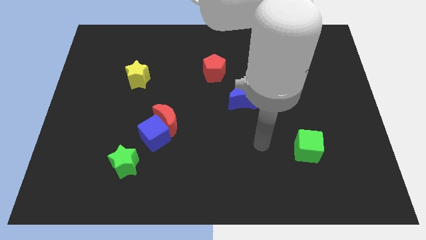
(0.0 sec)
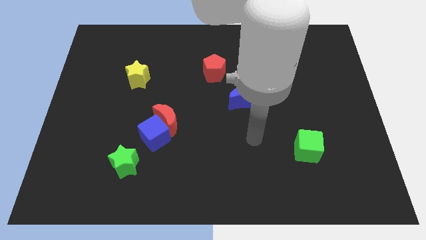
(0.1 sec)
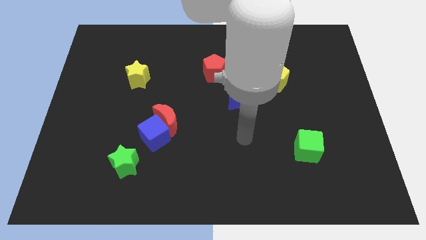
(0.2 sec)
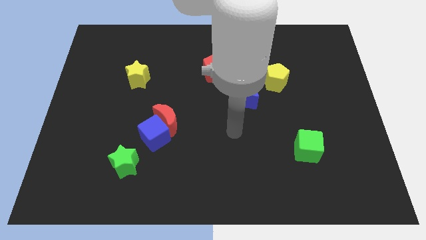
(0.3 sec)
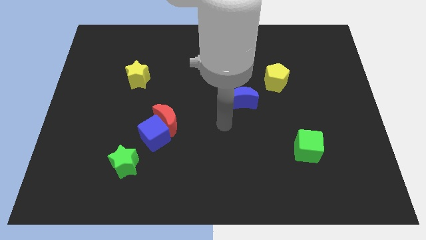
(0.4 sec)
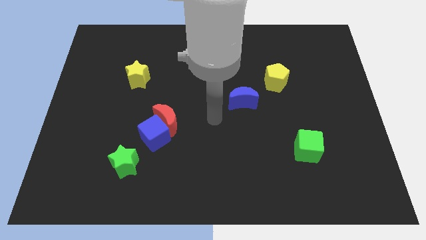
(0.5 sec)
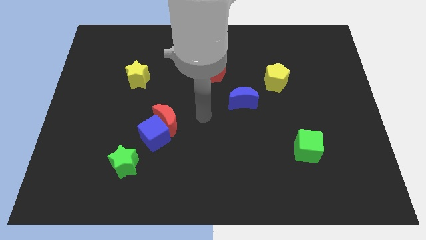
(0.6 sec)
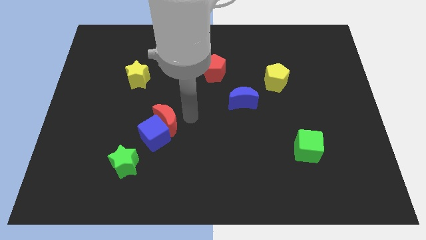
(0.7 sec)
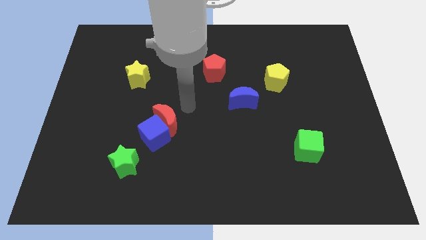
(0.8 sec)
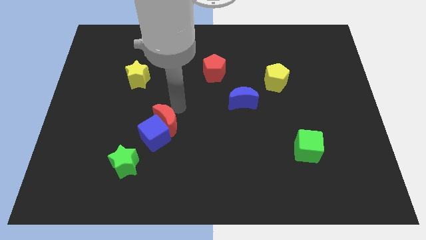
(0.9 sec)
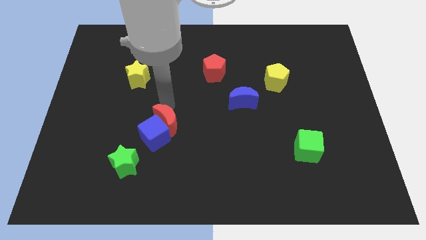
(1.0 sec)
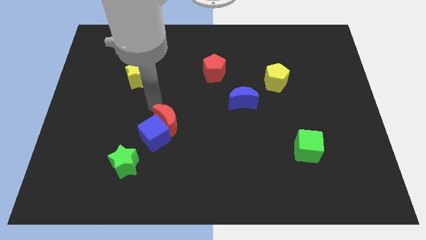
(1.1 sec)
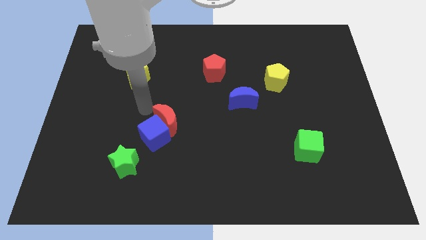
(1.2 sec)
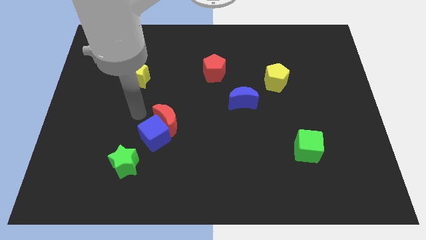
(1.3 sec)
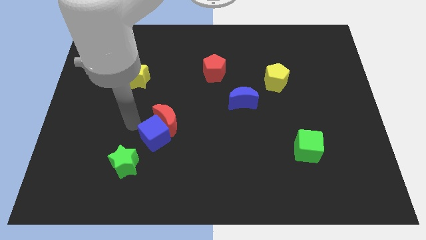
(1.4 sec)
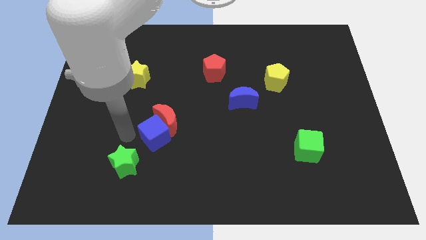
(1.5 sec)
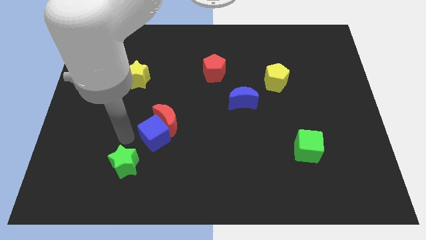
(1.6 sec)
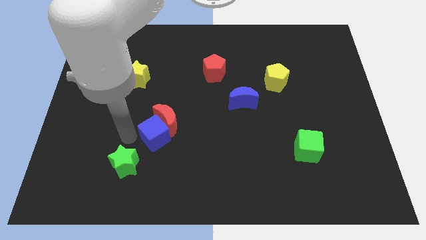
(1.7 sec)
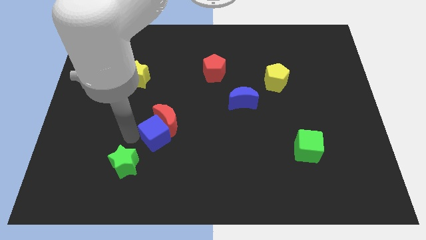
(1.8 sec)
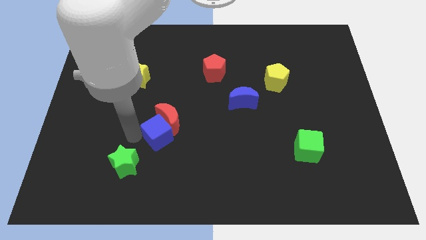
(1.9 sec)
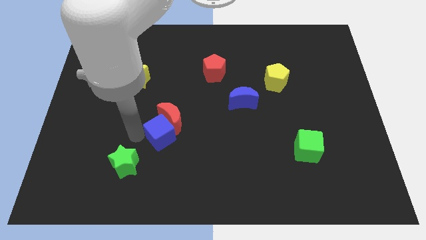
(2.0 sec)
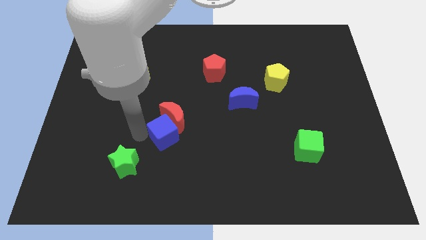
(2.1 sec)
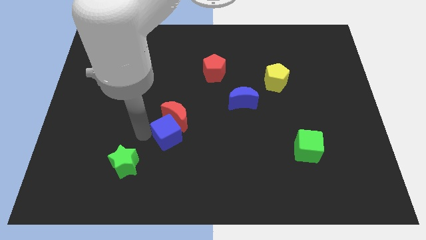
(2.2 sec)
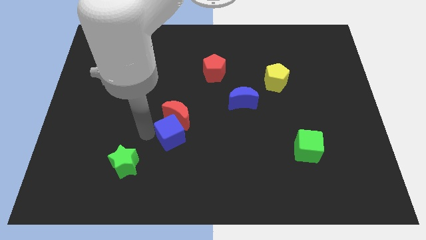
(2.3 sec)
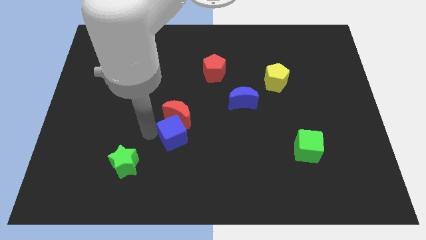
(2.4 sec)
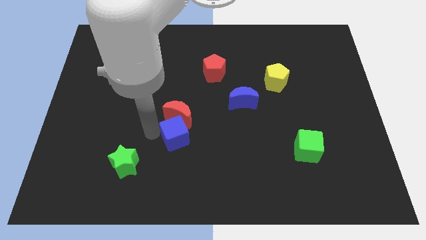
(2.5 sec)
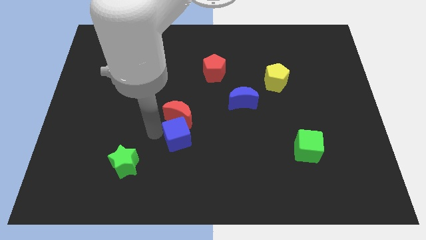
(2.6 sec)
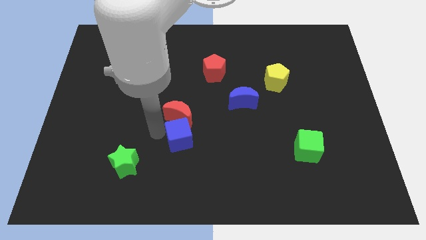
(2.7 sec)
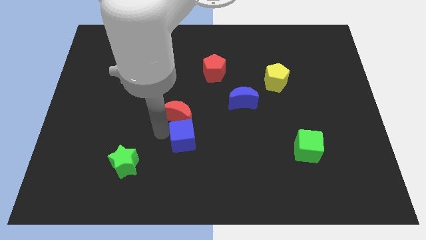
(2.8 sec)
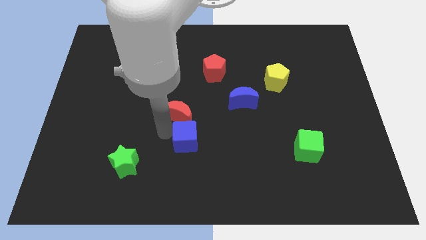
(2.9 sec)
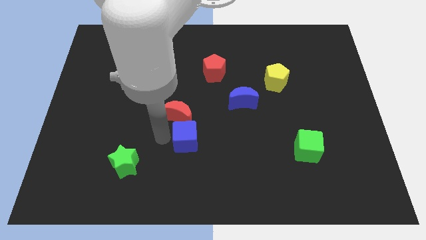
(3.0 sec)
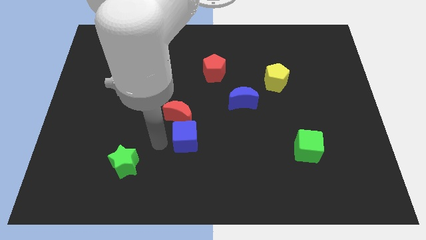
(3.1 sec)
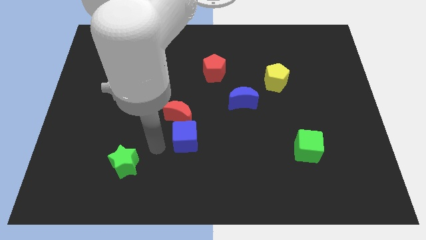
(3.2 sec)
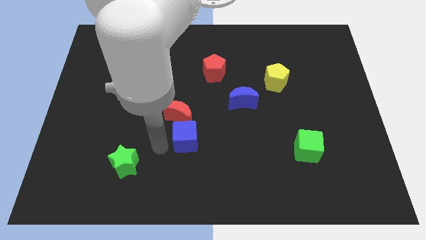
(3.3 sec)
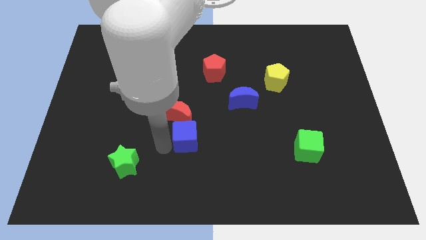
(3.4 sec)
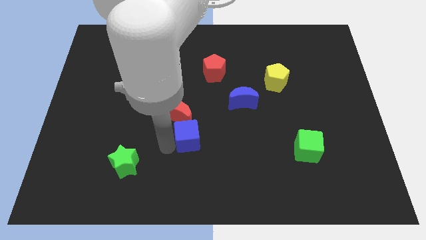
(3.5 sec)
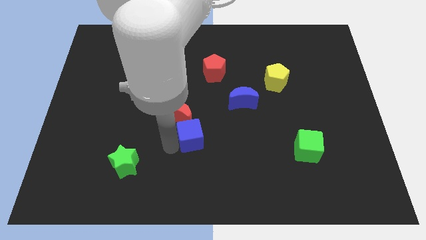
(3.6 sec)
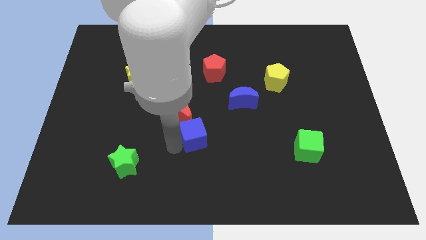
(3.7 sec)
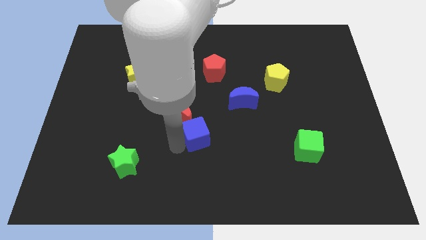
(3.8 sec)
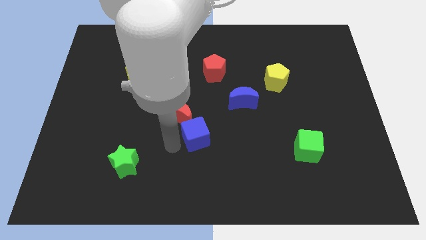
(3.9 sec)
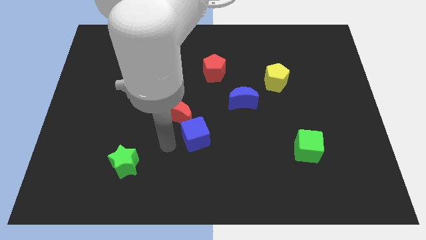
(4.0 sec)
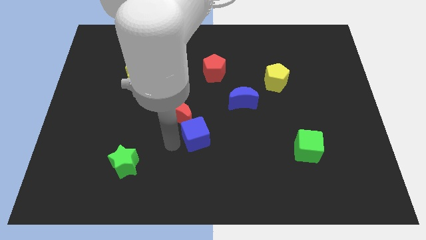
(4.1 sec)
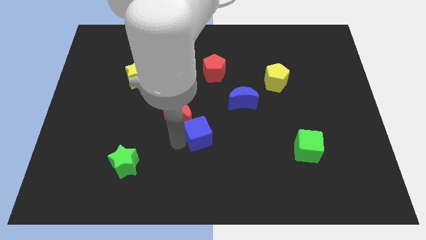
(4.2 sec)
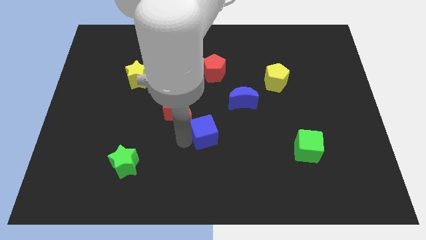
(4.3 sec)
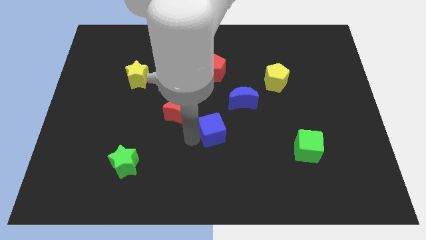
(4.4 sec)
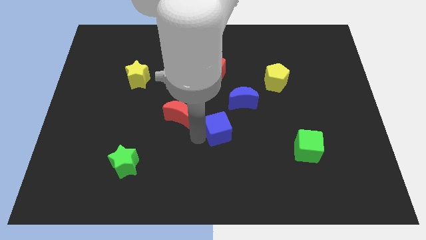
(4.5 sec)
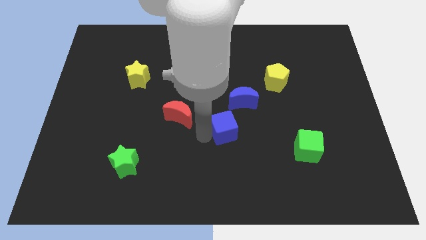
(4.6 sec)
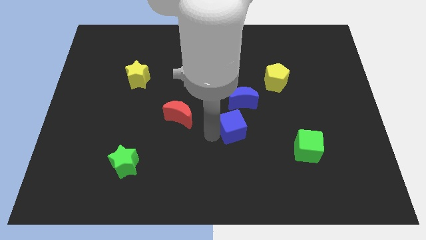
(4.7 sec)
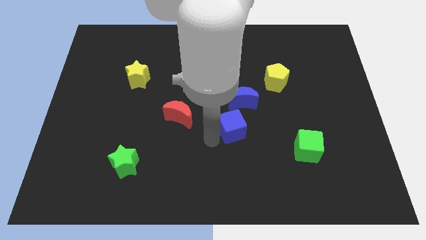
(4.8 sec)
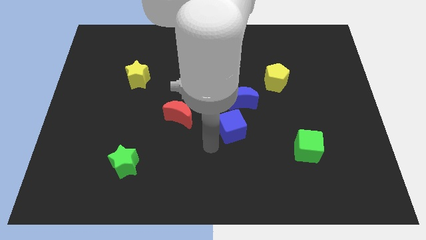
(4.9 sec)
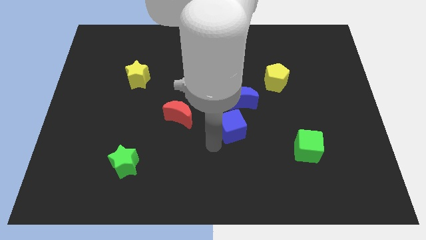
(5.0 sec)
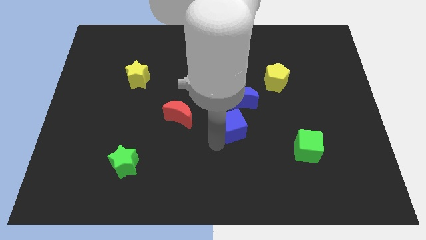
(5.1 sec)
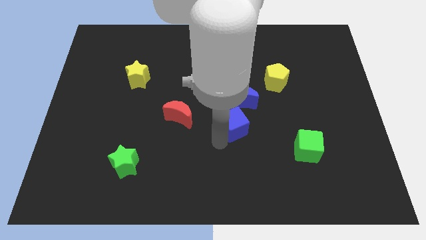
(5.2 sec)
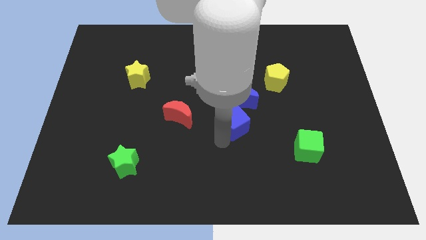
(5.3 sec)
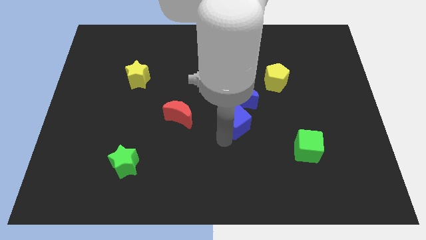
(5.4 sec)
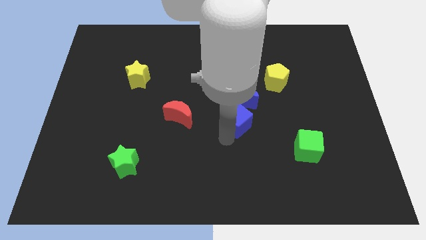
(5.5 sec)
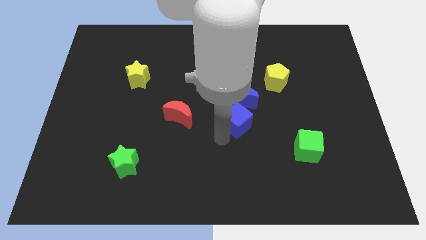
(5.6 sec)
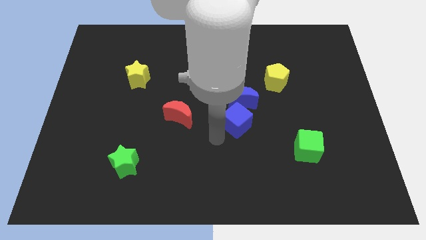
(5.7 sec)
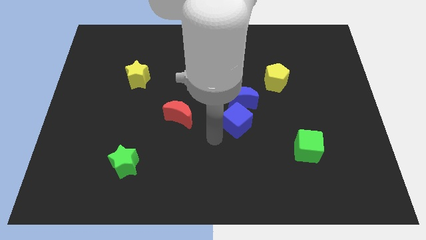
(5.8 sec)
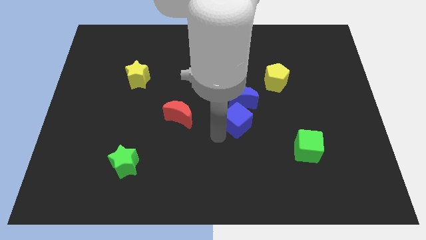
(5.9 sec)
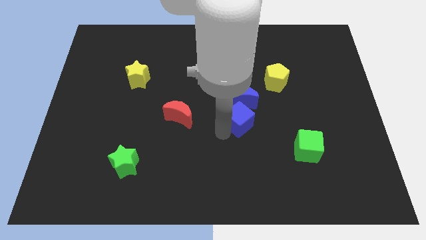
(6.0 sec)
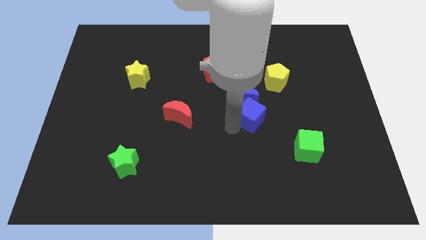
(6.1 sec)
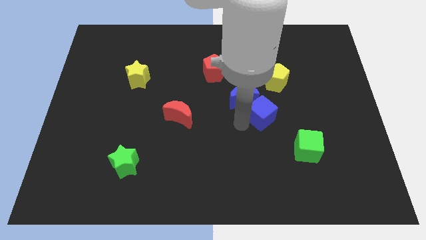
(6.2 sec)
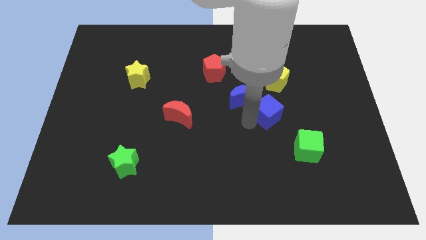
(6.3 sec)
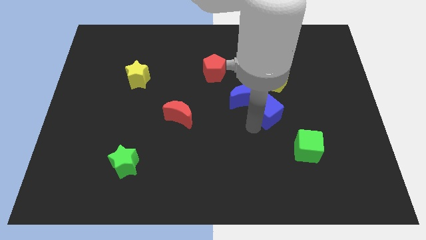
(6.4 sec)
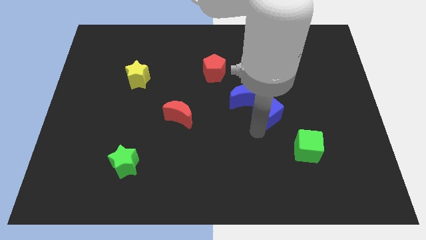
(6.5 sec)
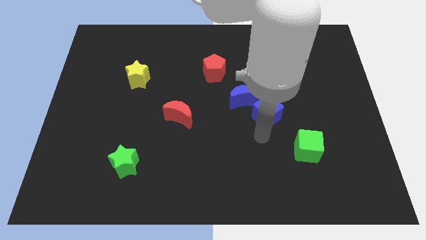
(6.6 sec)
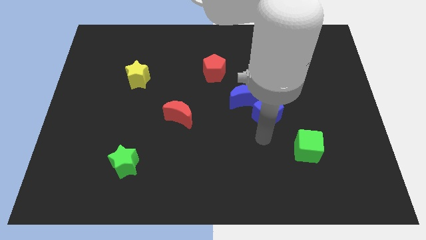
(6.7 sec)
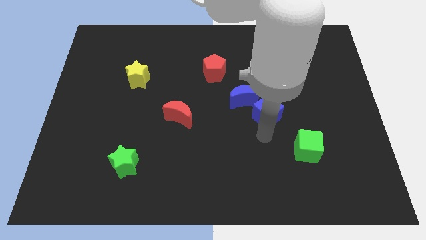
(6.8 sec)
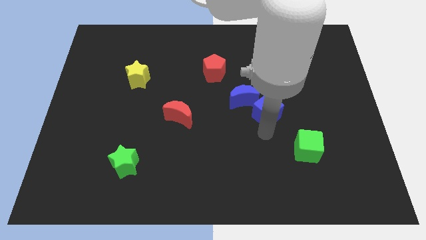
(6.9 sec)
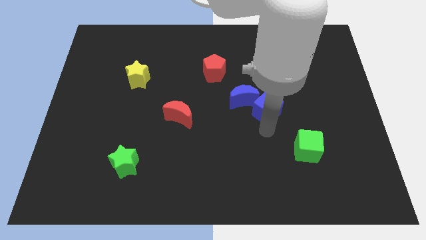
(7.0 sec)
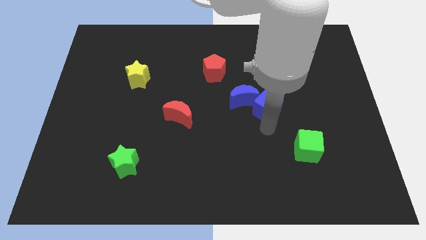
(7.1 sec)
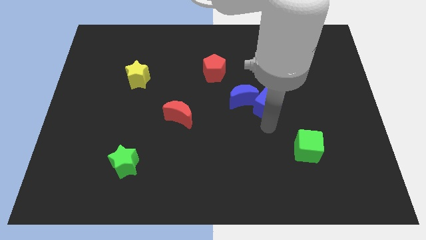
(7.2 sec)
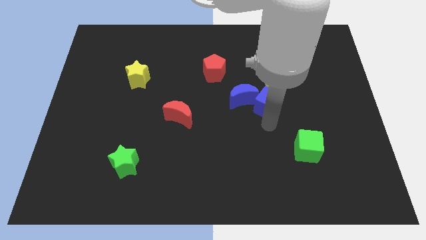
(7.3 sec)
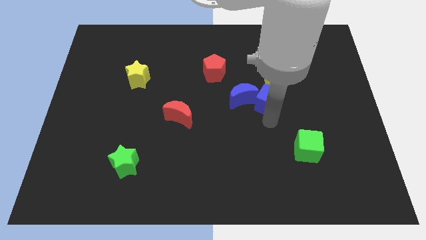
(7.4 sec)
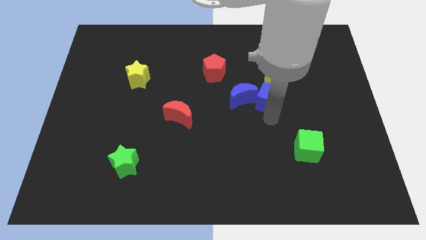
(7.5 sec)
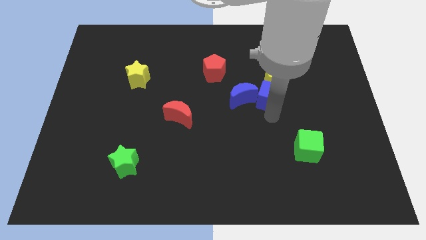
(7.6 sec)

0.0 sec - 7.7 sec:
put the blue cube close to the yellow pentagon
